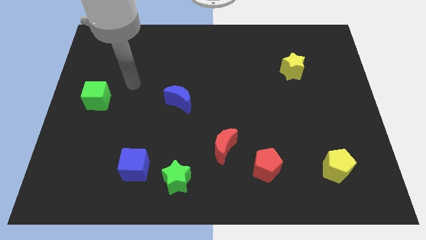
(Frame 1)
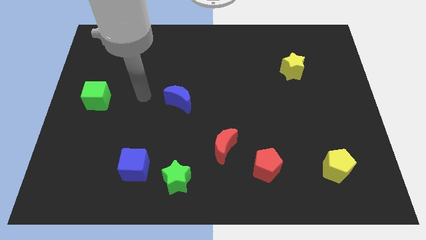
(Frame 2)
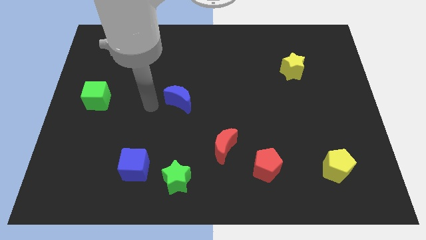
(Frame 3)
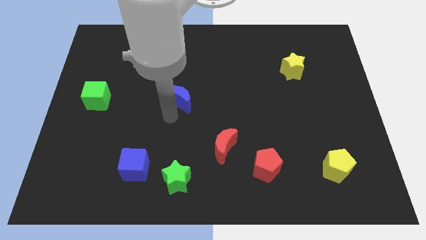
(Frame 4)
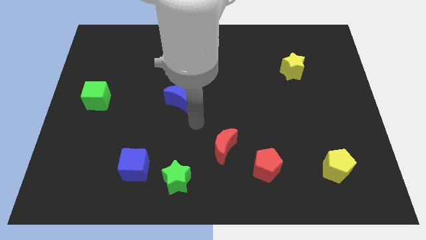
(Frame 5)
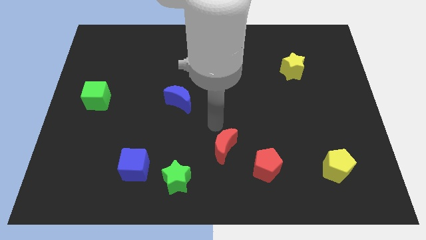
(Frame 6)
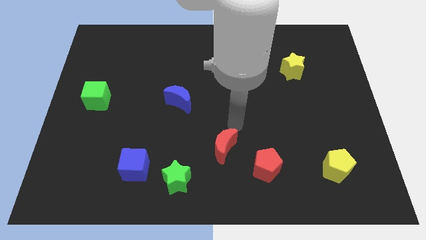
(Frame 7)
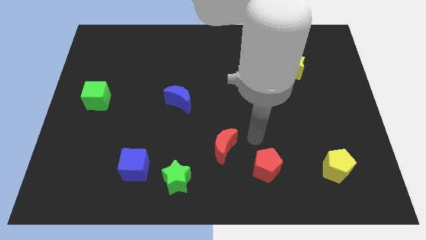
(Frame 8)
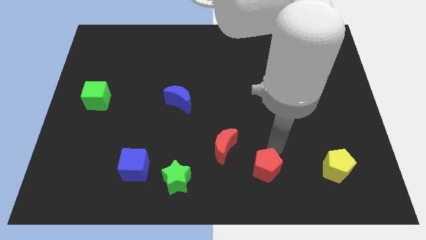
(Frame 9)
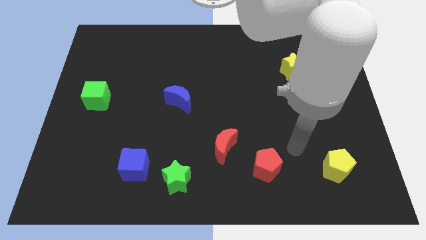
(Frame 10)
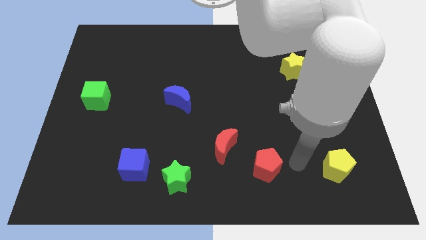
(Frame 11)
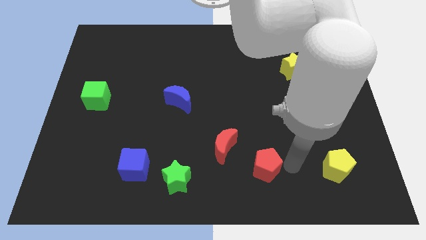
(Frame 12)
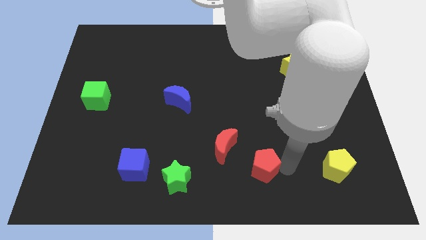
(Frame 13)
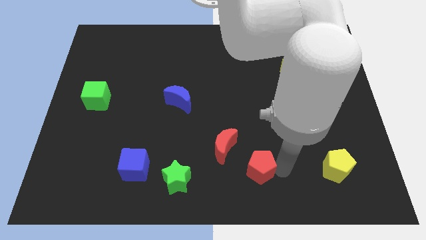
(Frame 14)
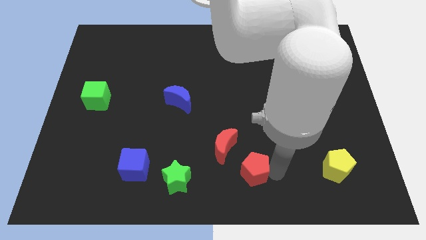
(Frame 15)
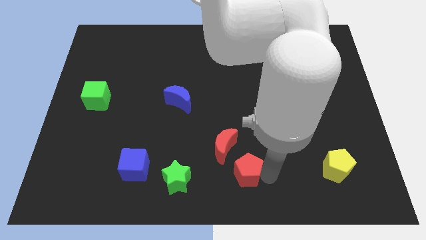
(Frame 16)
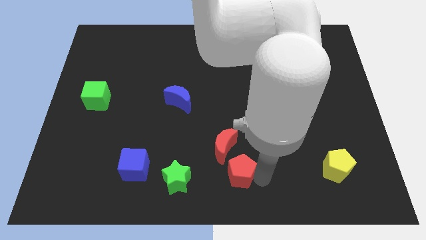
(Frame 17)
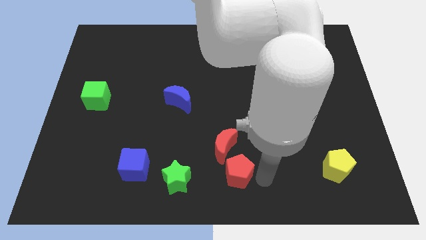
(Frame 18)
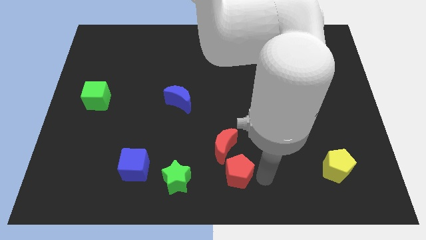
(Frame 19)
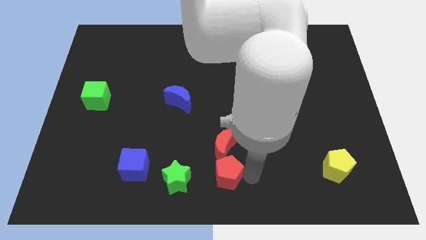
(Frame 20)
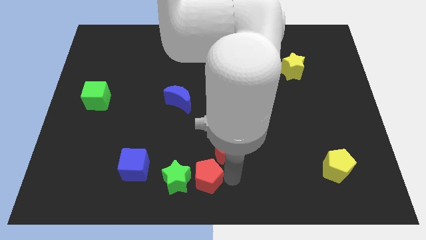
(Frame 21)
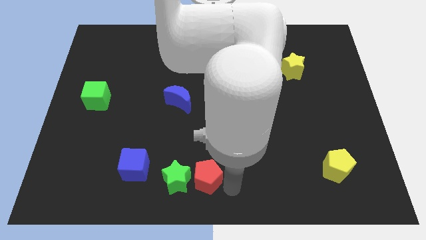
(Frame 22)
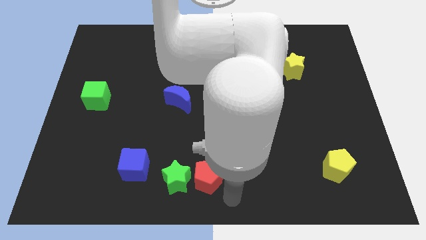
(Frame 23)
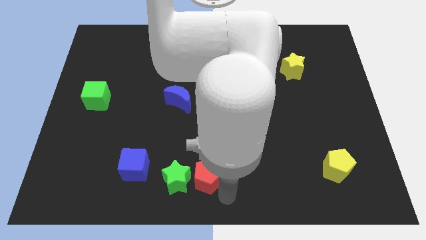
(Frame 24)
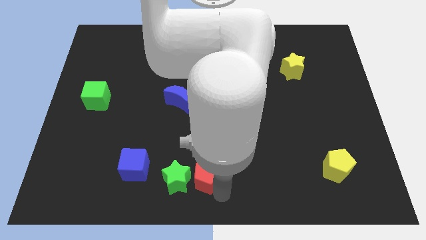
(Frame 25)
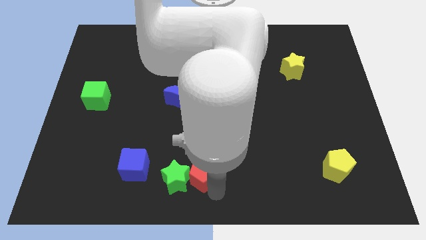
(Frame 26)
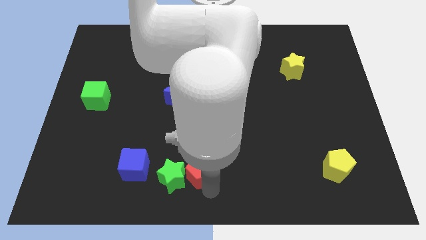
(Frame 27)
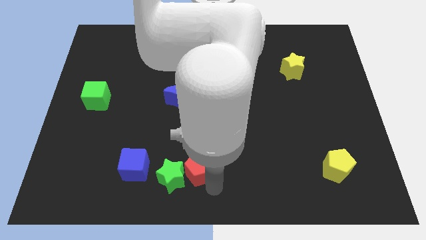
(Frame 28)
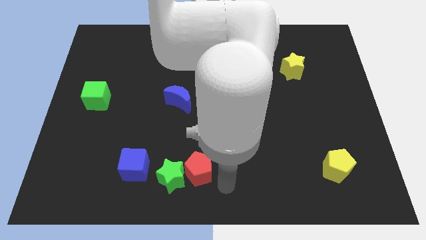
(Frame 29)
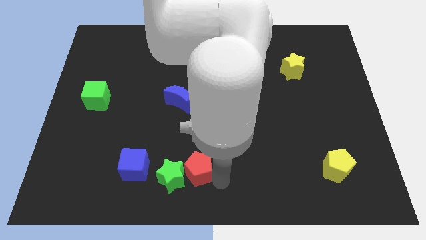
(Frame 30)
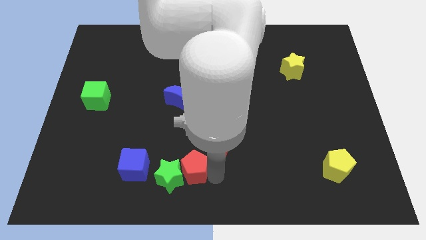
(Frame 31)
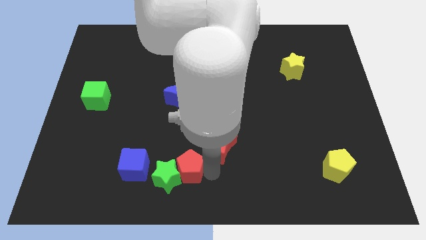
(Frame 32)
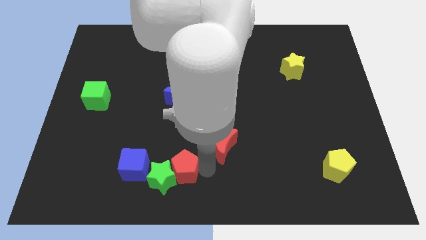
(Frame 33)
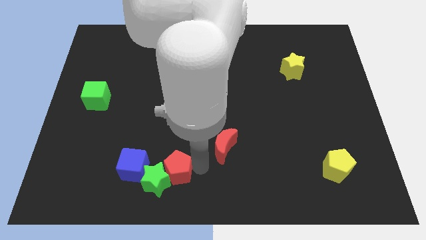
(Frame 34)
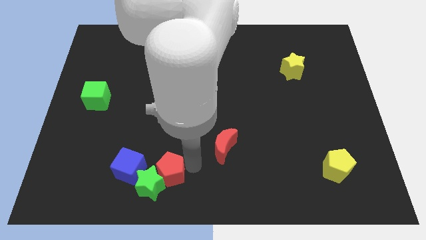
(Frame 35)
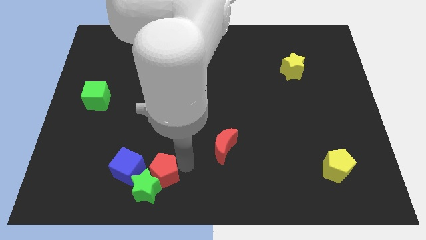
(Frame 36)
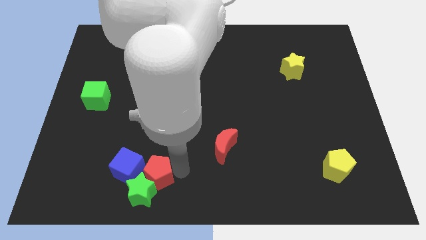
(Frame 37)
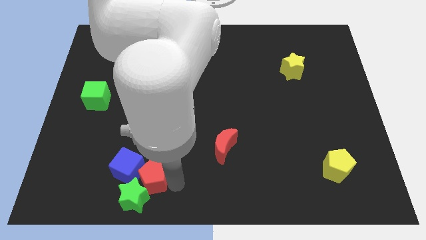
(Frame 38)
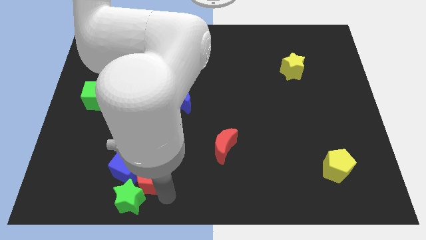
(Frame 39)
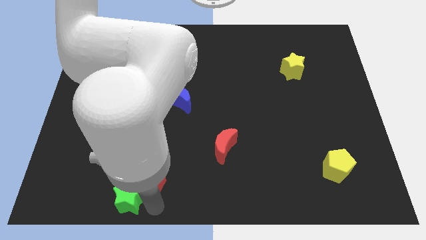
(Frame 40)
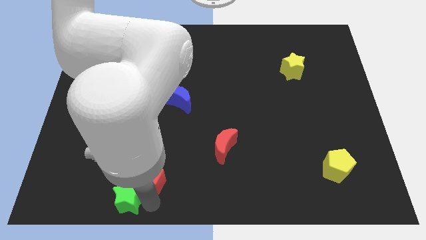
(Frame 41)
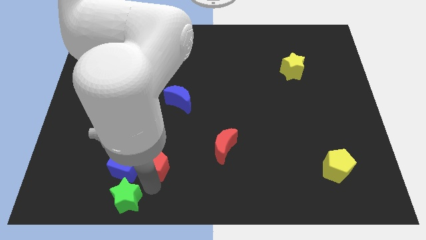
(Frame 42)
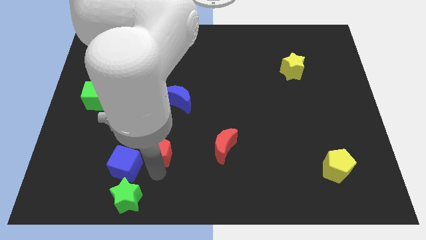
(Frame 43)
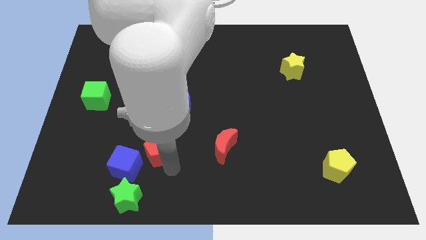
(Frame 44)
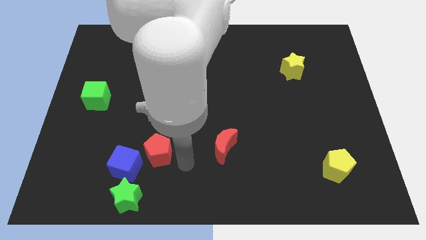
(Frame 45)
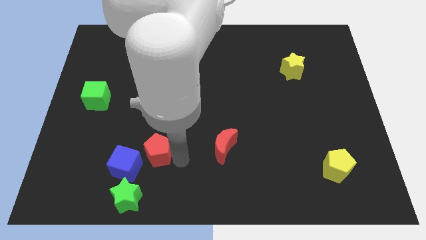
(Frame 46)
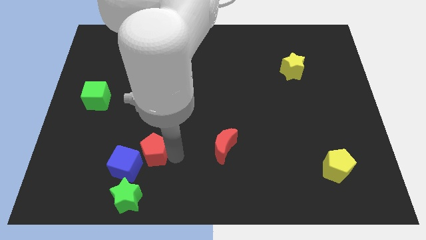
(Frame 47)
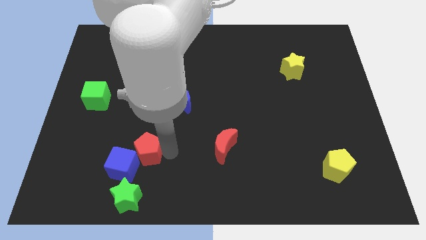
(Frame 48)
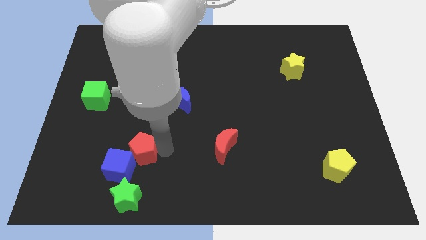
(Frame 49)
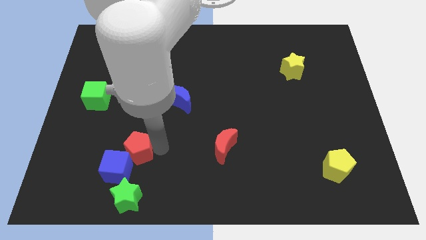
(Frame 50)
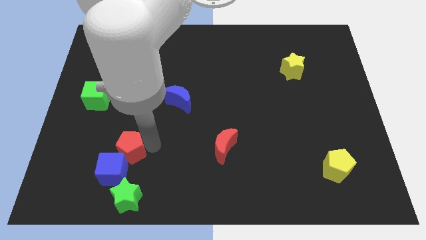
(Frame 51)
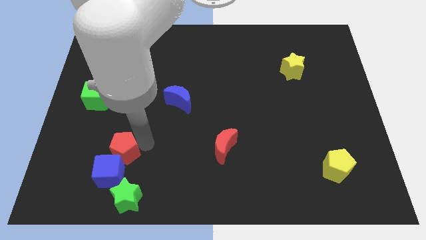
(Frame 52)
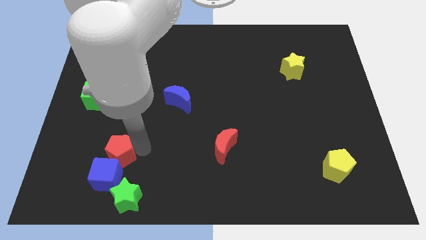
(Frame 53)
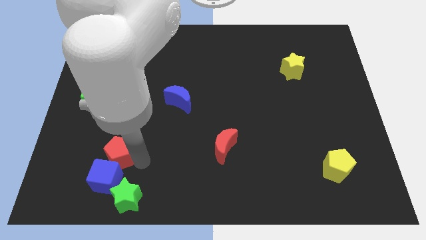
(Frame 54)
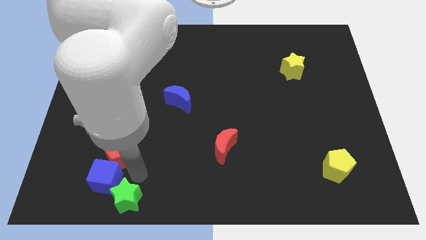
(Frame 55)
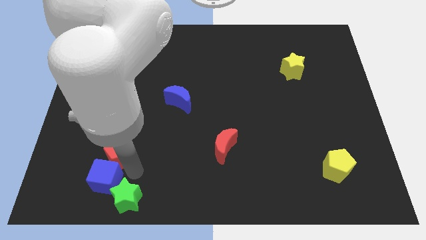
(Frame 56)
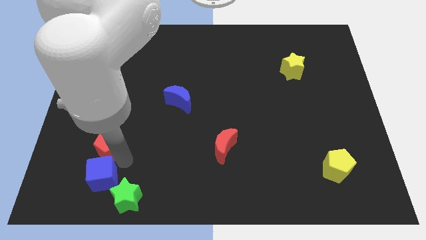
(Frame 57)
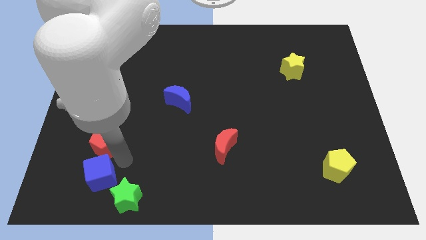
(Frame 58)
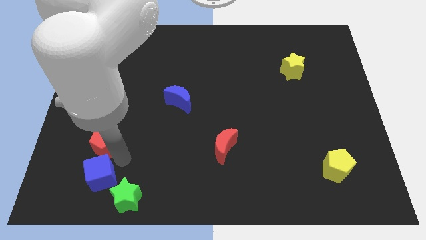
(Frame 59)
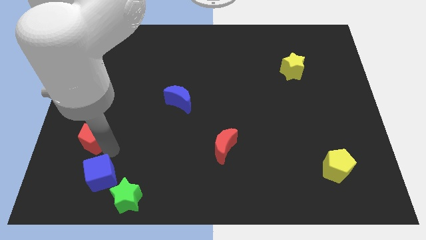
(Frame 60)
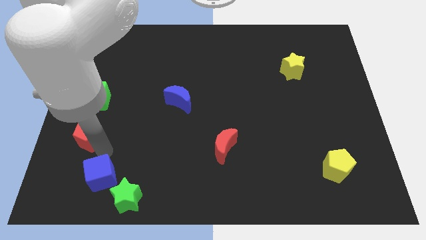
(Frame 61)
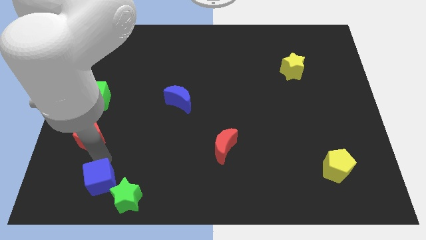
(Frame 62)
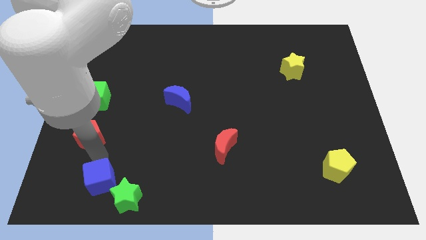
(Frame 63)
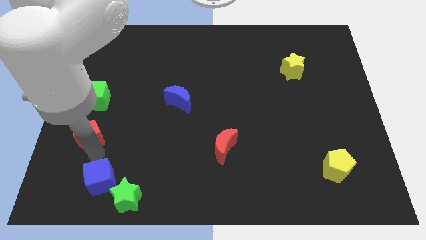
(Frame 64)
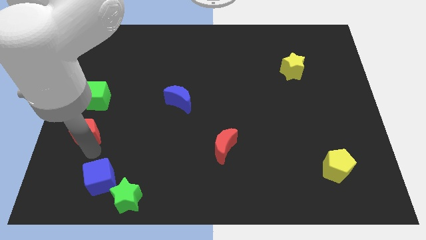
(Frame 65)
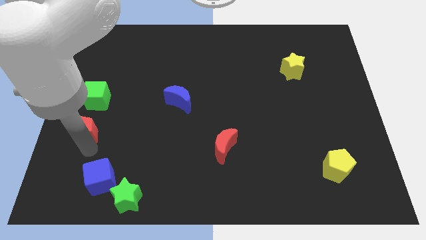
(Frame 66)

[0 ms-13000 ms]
push the red pentagon to the center left
